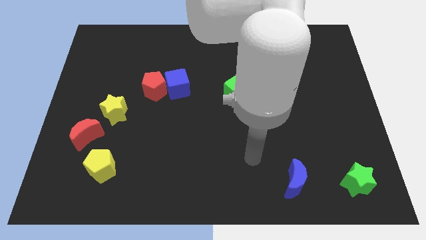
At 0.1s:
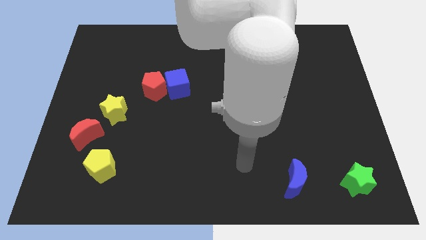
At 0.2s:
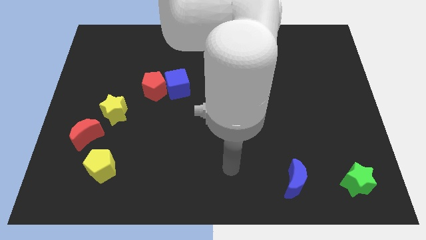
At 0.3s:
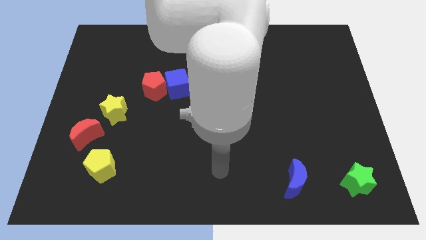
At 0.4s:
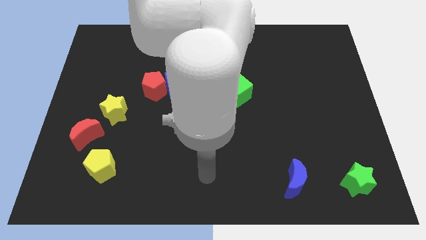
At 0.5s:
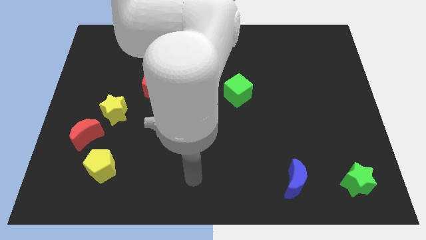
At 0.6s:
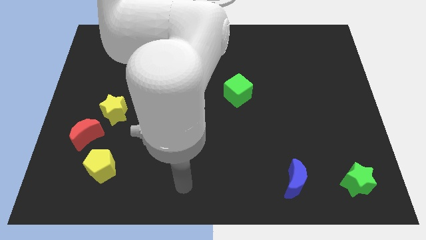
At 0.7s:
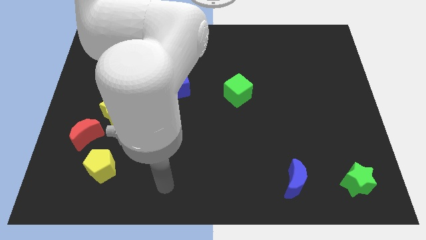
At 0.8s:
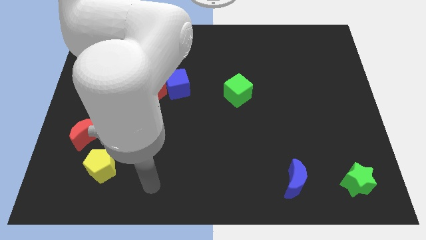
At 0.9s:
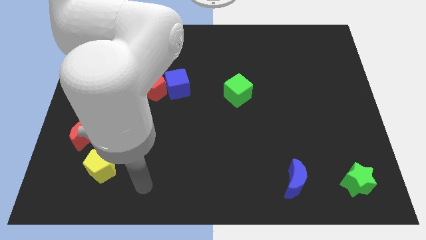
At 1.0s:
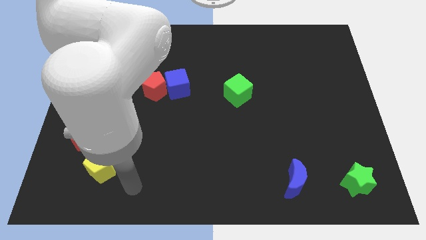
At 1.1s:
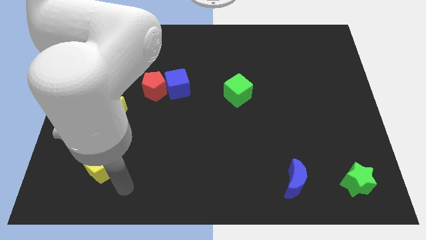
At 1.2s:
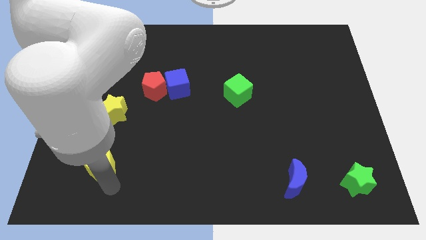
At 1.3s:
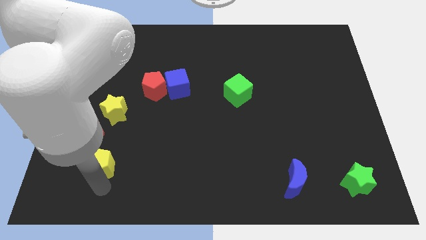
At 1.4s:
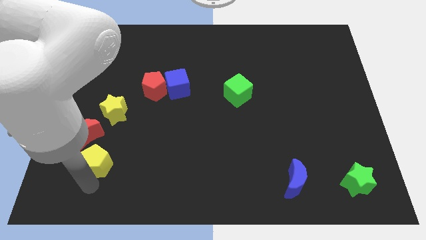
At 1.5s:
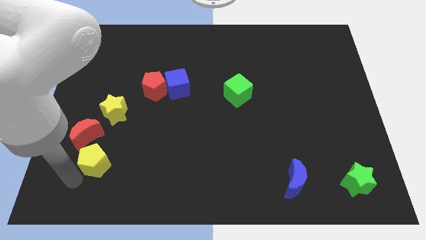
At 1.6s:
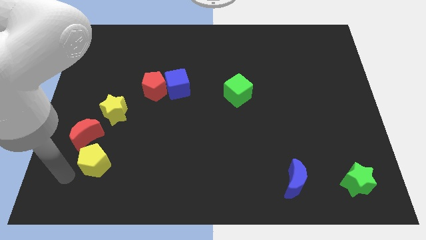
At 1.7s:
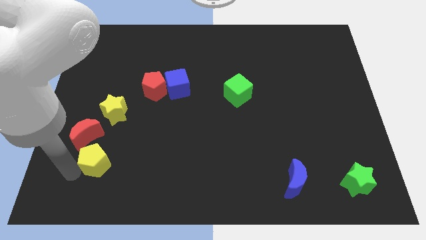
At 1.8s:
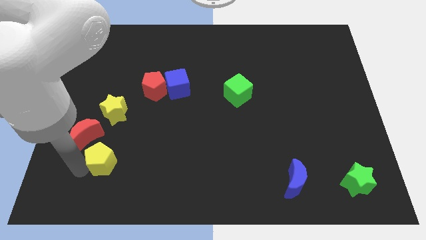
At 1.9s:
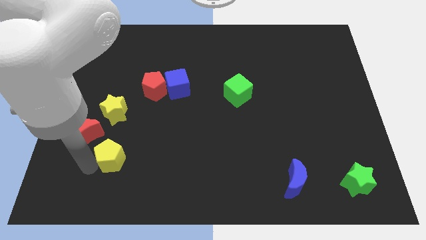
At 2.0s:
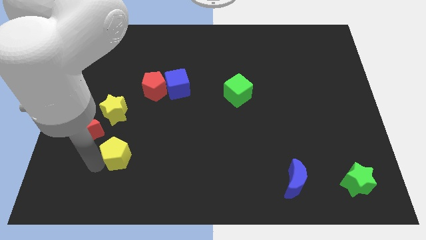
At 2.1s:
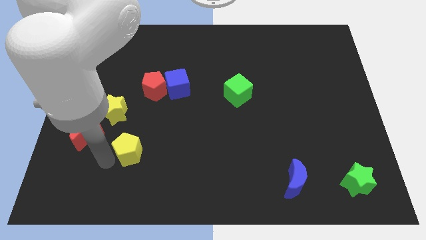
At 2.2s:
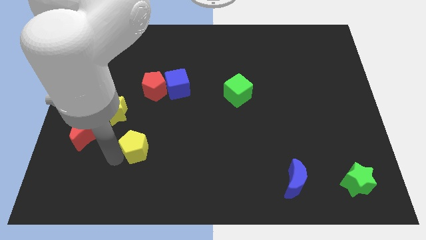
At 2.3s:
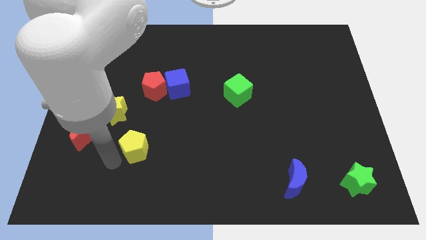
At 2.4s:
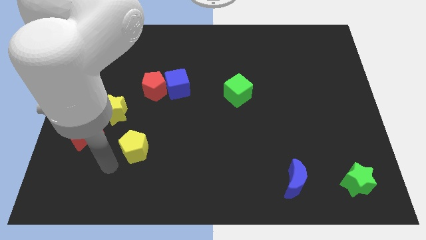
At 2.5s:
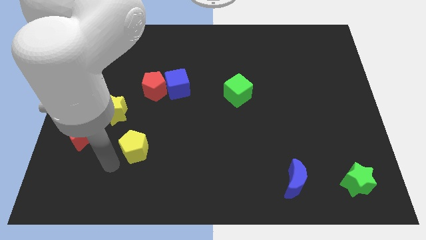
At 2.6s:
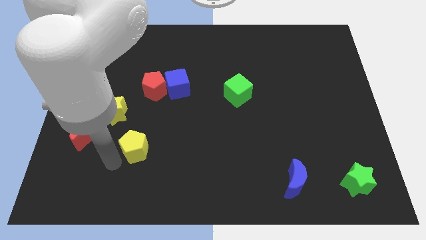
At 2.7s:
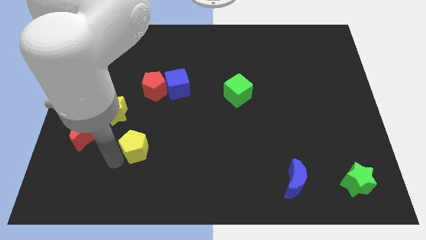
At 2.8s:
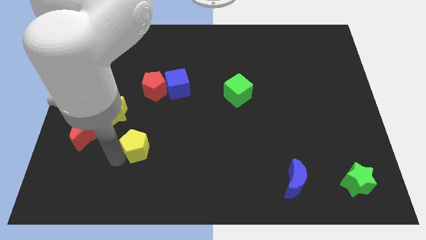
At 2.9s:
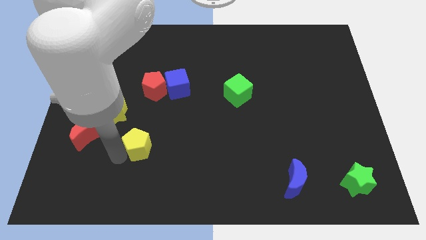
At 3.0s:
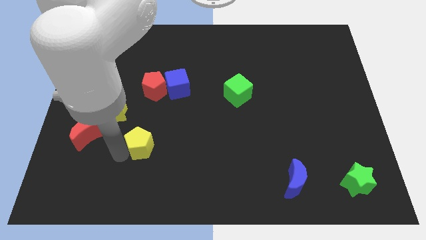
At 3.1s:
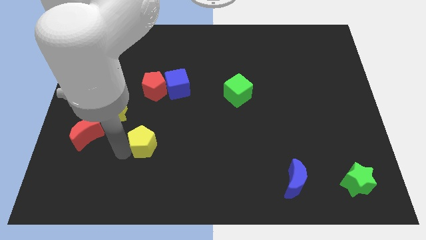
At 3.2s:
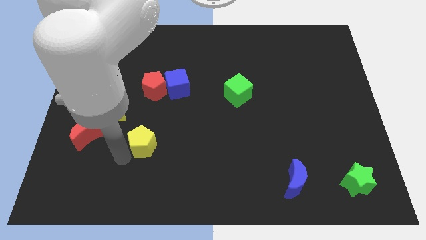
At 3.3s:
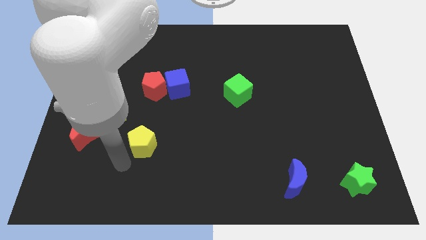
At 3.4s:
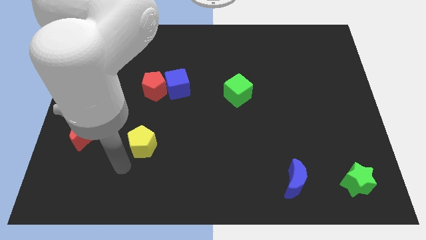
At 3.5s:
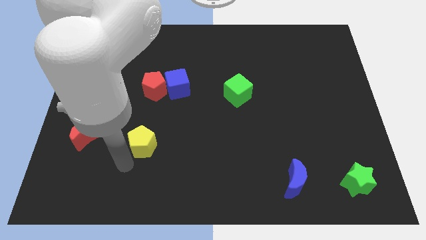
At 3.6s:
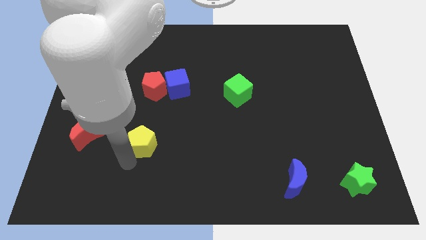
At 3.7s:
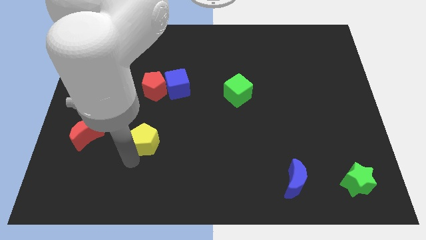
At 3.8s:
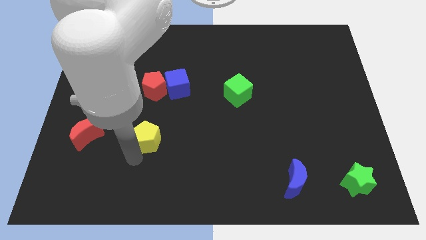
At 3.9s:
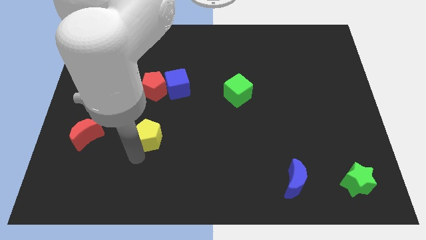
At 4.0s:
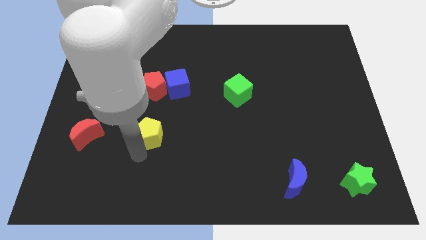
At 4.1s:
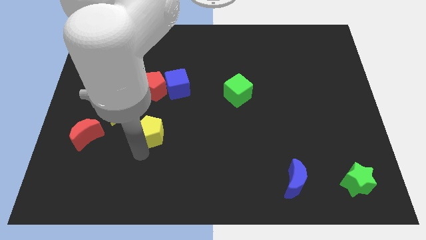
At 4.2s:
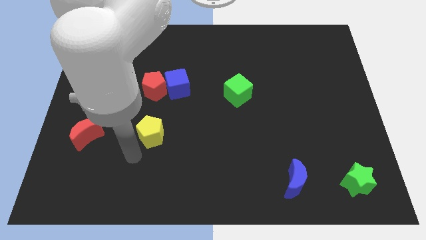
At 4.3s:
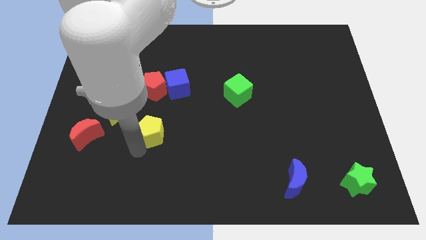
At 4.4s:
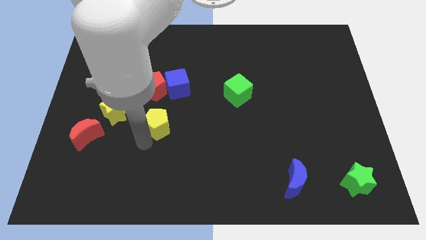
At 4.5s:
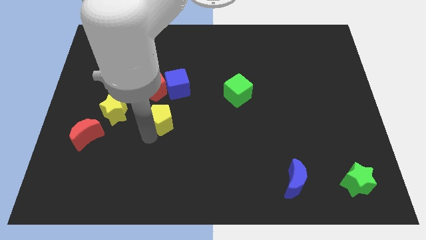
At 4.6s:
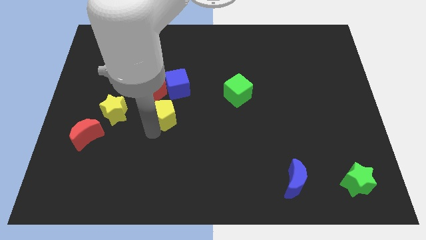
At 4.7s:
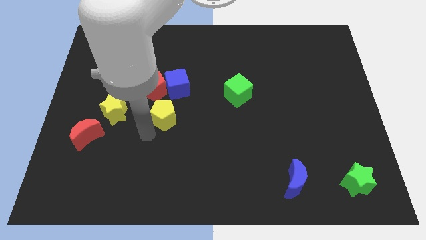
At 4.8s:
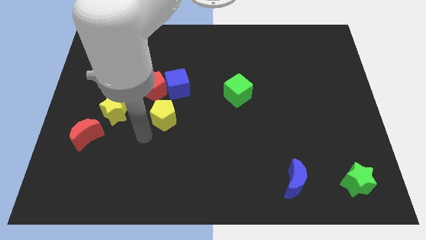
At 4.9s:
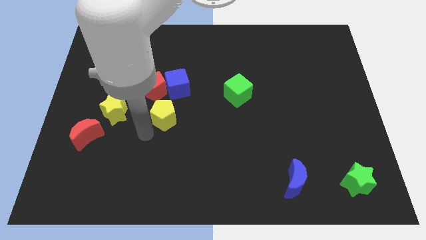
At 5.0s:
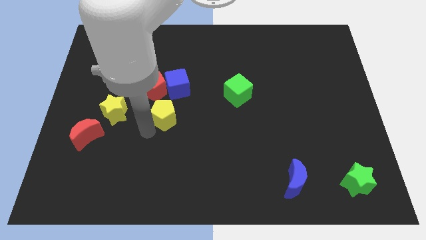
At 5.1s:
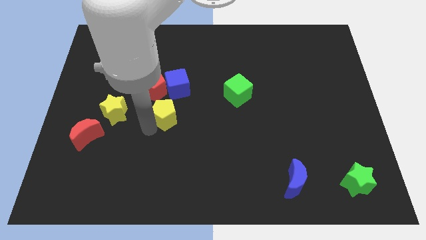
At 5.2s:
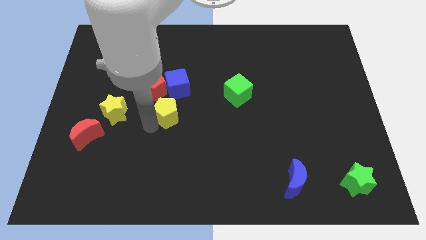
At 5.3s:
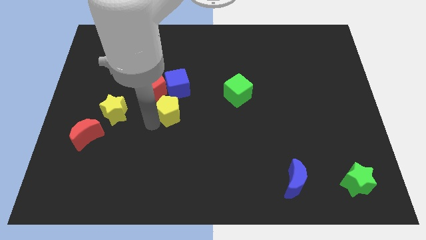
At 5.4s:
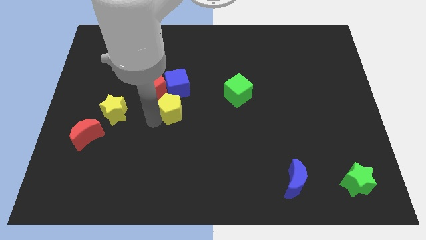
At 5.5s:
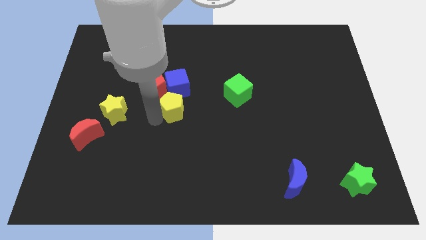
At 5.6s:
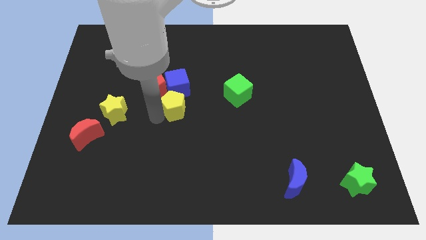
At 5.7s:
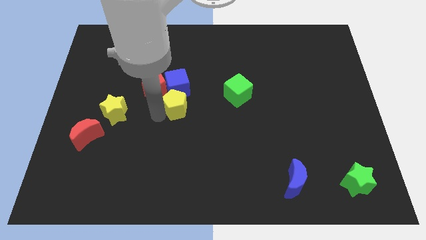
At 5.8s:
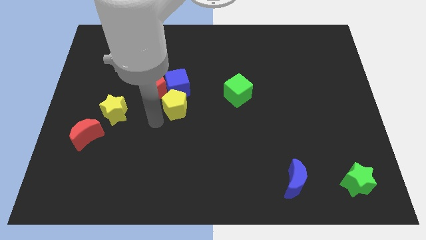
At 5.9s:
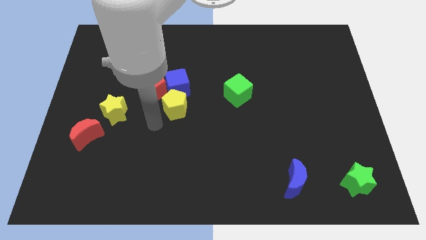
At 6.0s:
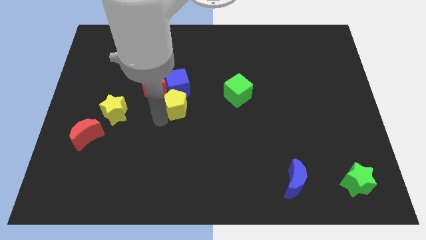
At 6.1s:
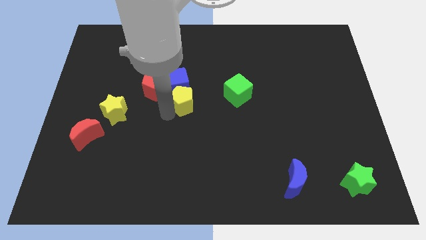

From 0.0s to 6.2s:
move the yellow pentagon to the right side of the red pentagon

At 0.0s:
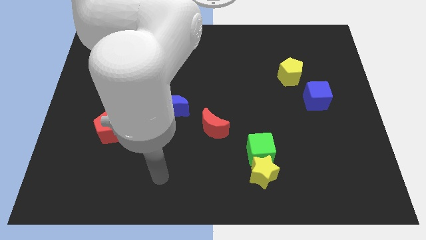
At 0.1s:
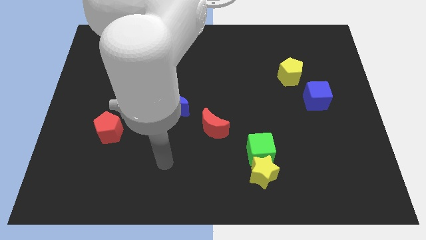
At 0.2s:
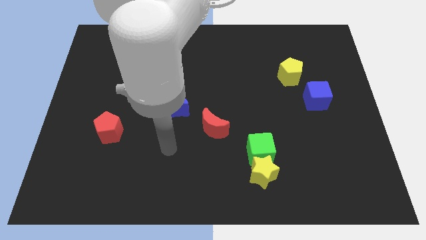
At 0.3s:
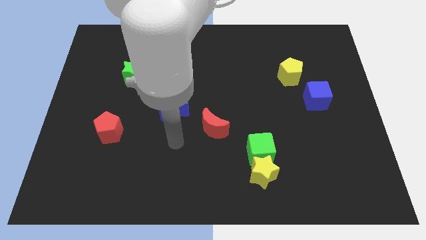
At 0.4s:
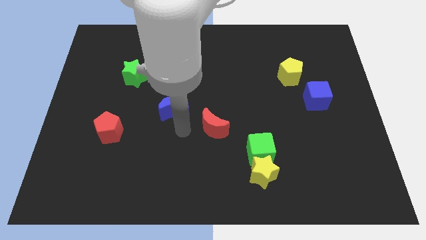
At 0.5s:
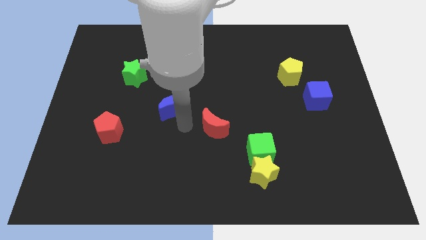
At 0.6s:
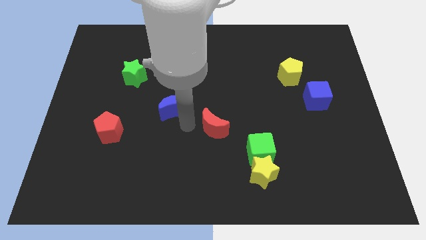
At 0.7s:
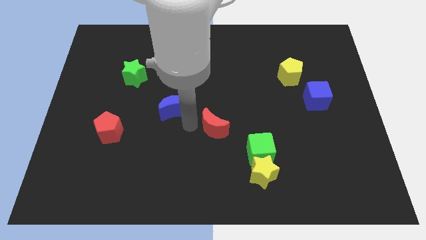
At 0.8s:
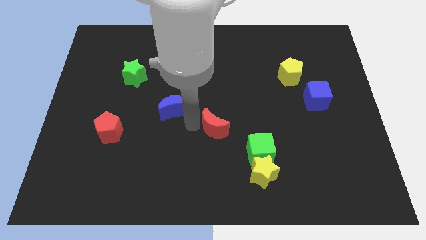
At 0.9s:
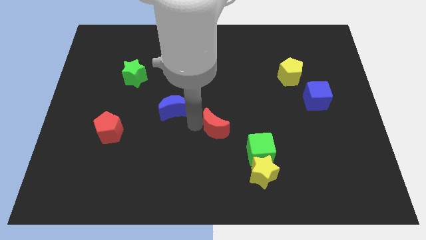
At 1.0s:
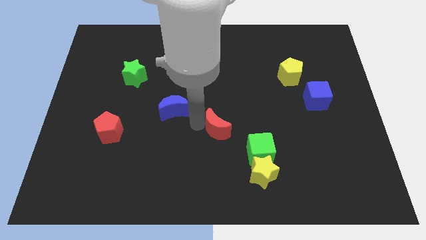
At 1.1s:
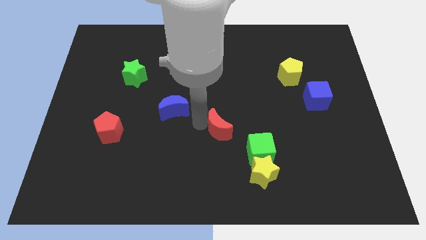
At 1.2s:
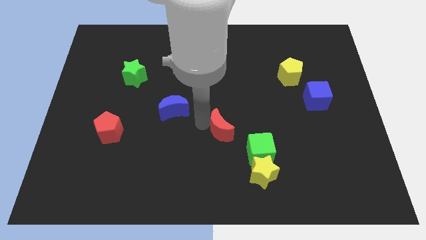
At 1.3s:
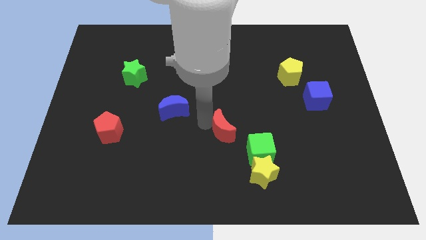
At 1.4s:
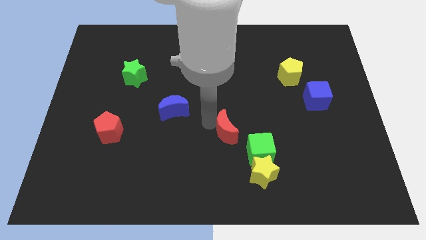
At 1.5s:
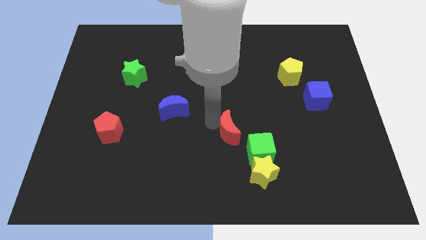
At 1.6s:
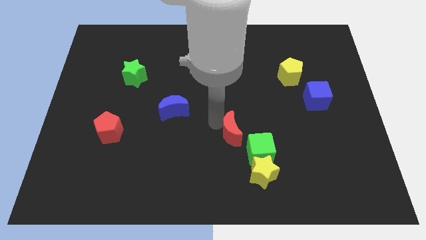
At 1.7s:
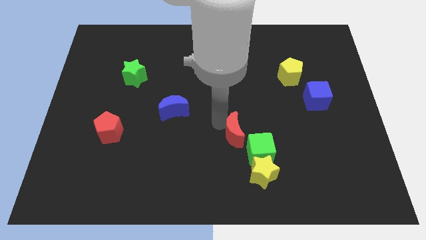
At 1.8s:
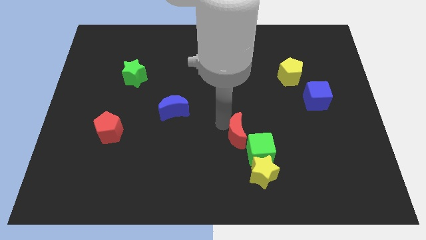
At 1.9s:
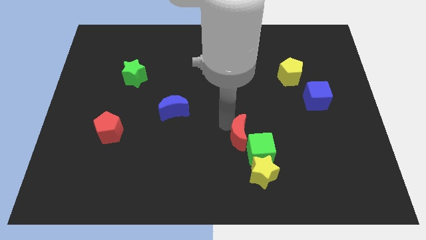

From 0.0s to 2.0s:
put the red moon above the yellow star
